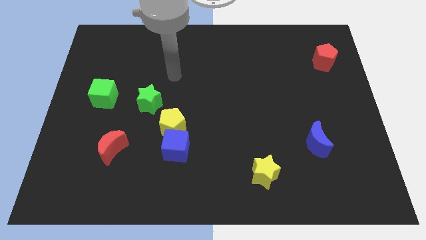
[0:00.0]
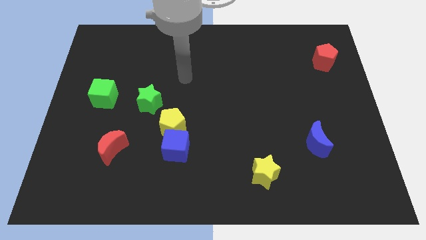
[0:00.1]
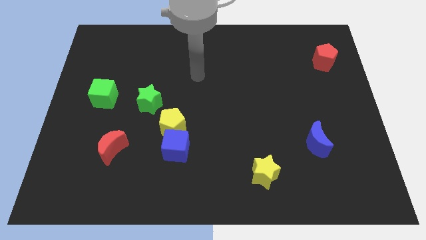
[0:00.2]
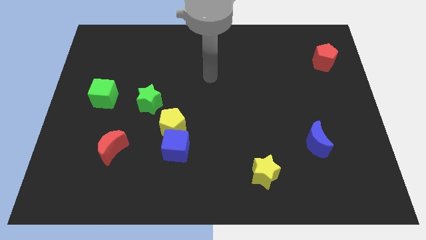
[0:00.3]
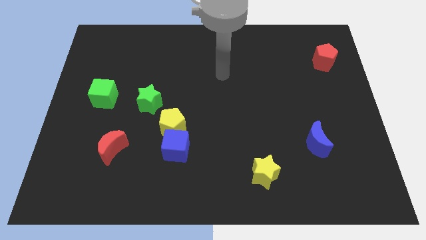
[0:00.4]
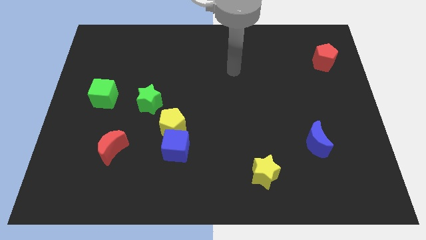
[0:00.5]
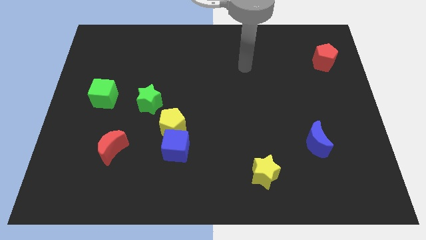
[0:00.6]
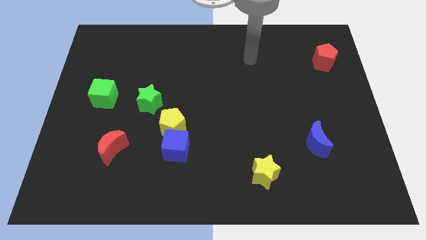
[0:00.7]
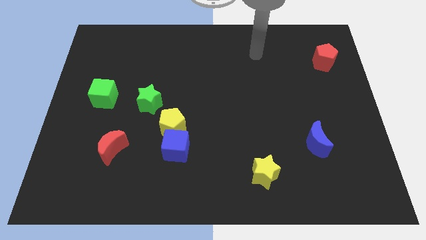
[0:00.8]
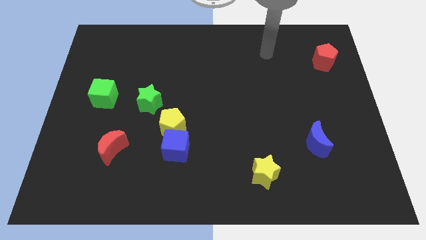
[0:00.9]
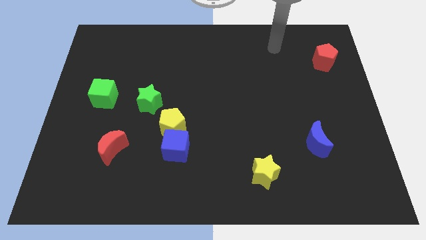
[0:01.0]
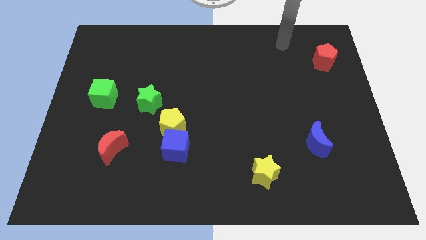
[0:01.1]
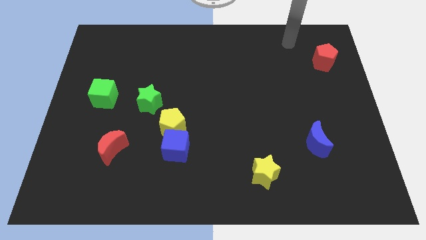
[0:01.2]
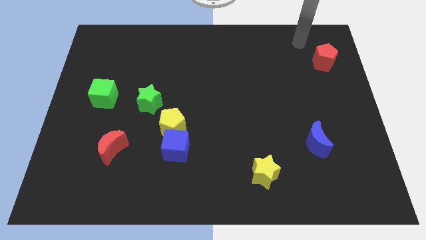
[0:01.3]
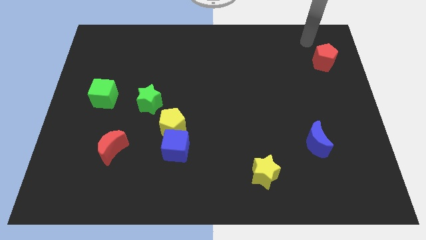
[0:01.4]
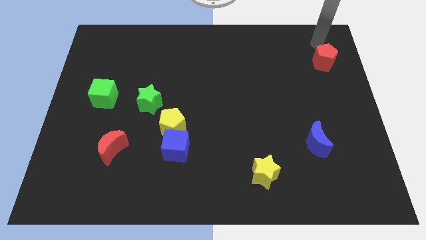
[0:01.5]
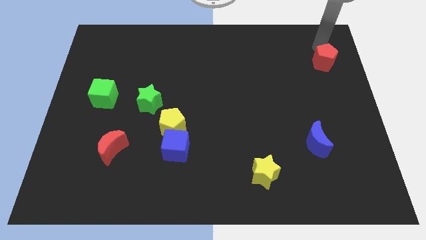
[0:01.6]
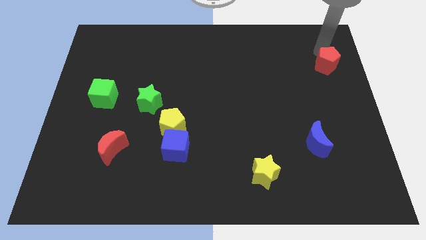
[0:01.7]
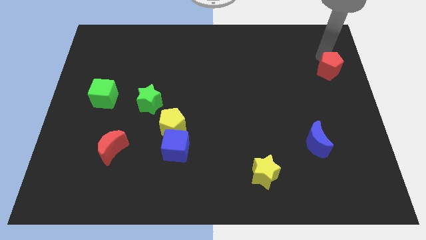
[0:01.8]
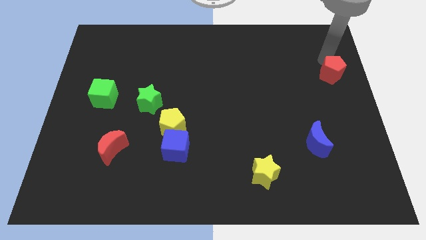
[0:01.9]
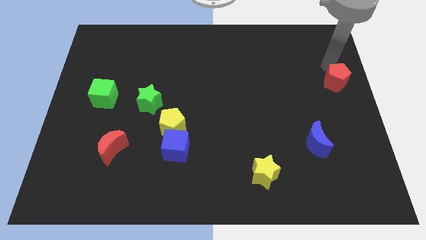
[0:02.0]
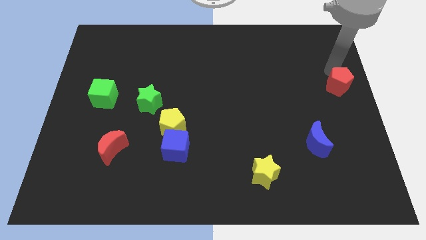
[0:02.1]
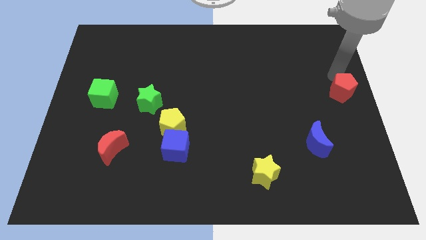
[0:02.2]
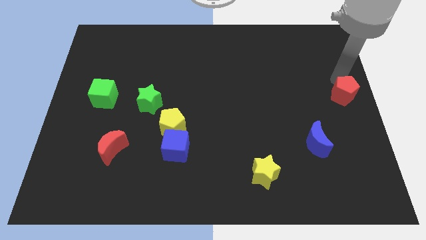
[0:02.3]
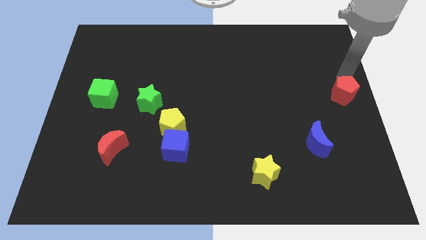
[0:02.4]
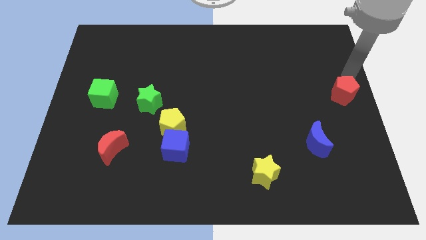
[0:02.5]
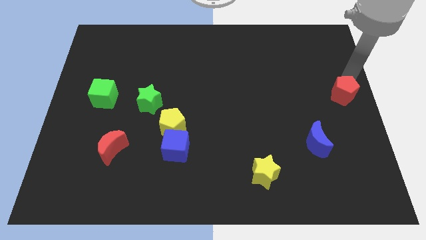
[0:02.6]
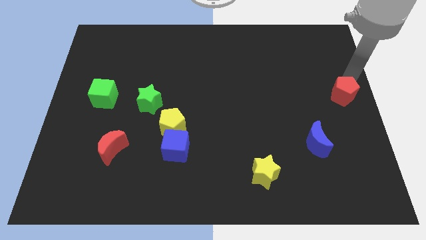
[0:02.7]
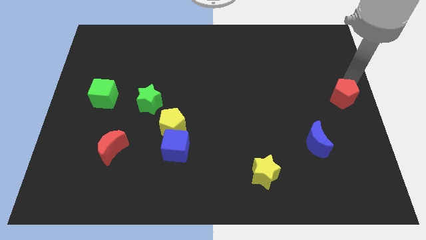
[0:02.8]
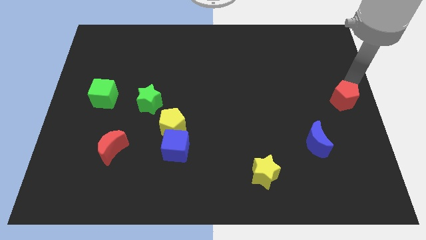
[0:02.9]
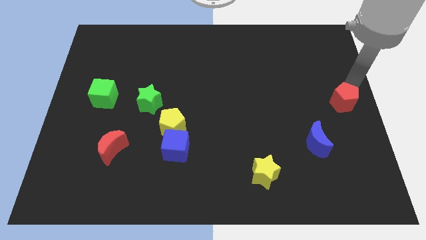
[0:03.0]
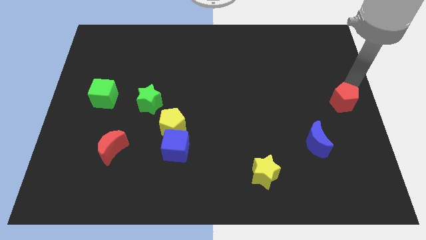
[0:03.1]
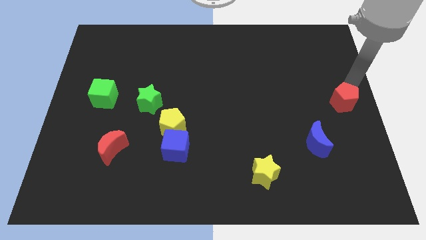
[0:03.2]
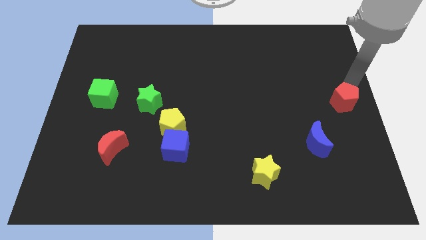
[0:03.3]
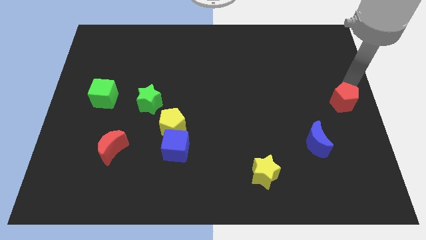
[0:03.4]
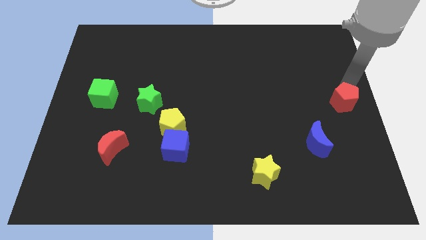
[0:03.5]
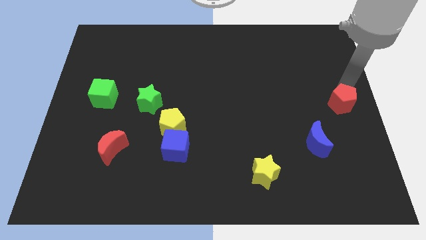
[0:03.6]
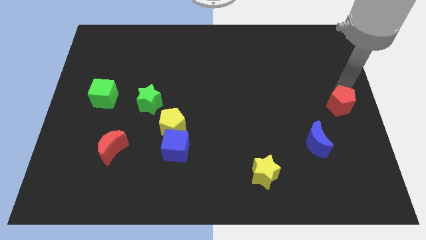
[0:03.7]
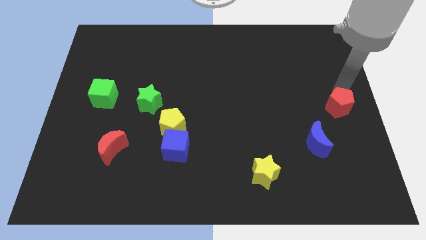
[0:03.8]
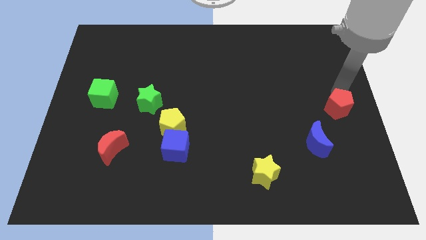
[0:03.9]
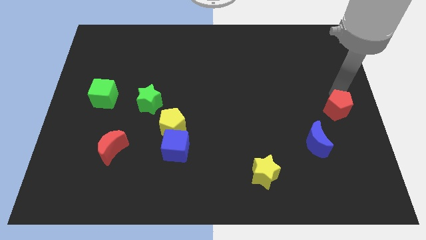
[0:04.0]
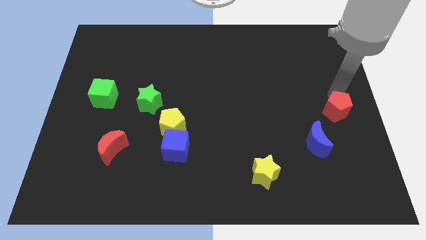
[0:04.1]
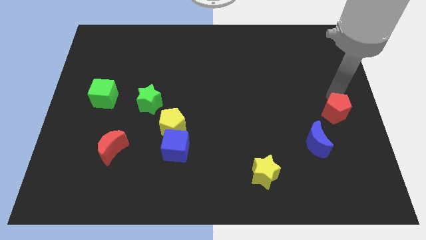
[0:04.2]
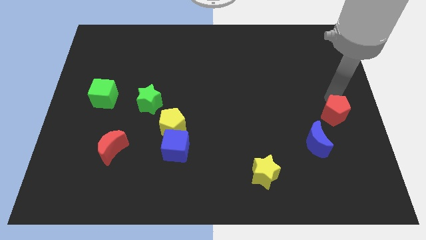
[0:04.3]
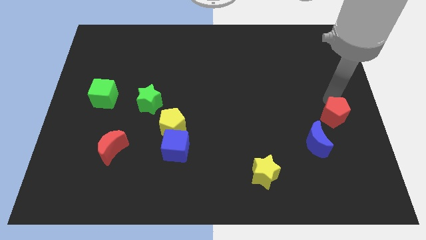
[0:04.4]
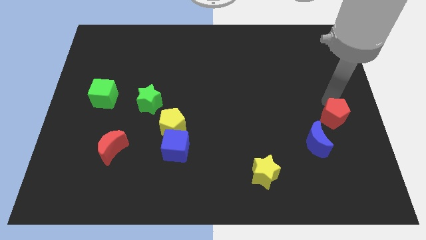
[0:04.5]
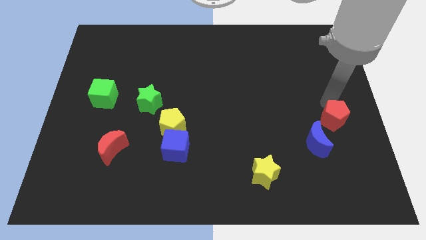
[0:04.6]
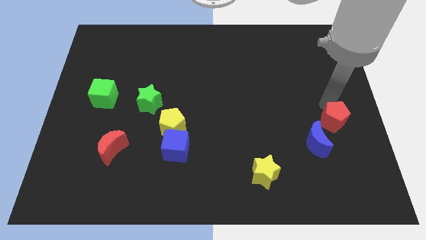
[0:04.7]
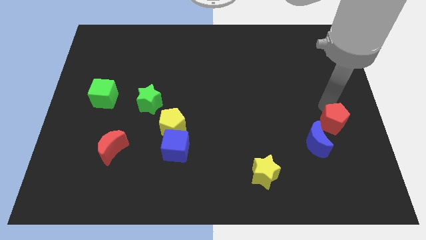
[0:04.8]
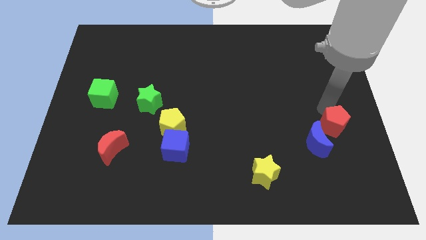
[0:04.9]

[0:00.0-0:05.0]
move the red pentagon downwards

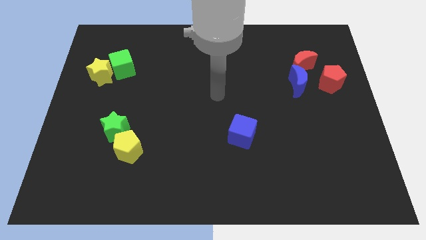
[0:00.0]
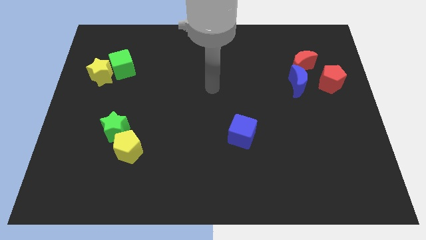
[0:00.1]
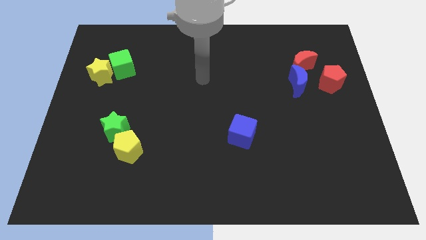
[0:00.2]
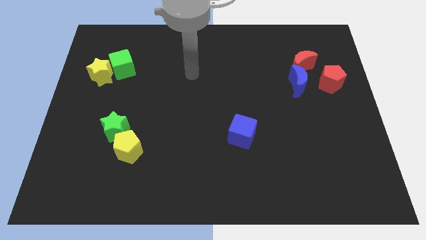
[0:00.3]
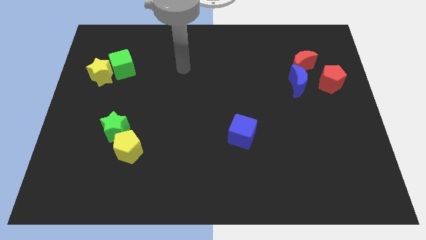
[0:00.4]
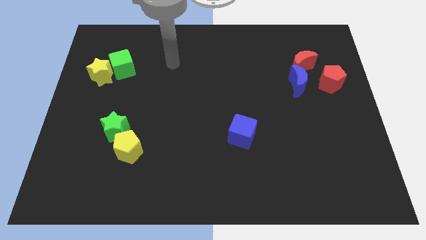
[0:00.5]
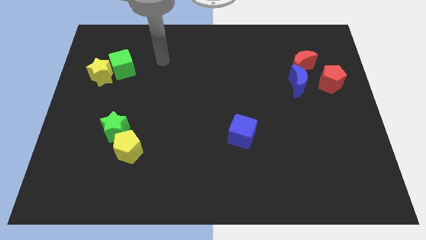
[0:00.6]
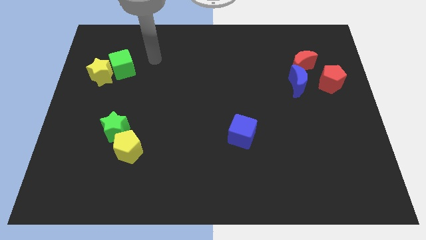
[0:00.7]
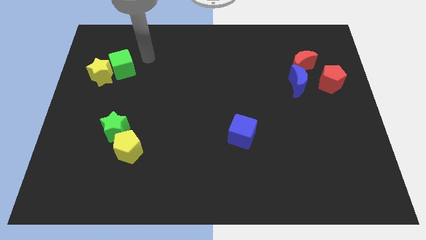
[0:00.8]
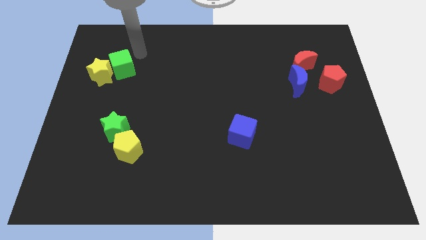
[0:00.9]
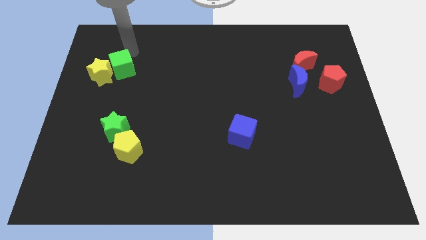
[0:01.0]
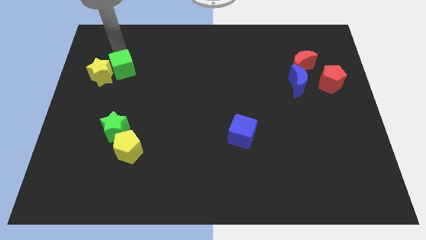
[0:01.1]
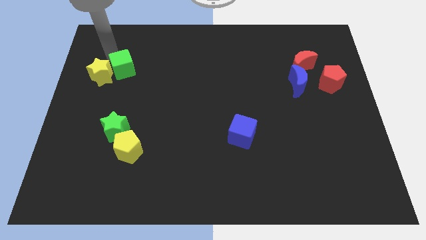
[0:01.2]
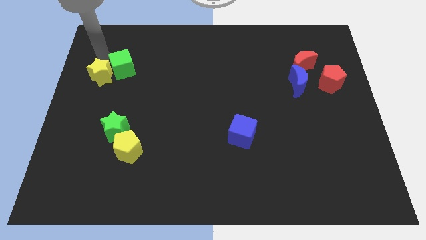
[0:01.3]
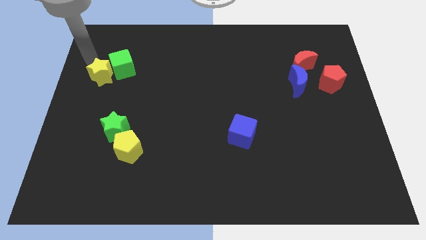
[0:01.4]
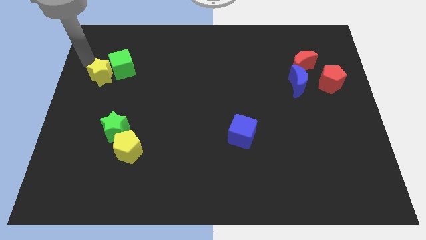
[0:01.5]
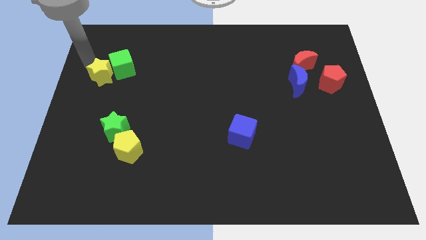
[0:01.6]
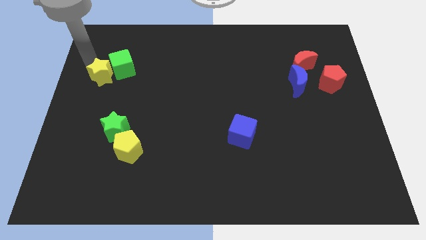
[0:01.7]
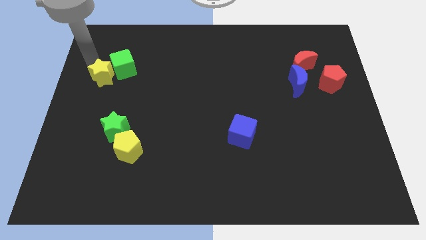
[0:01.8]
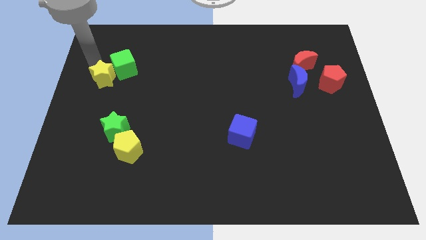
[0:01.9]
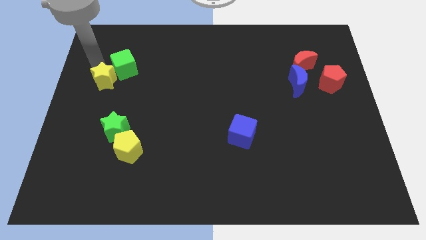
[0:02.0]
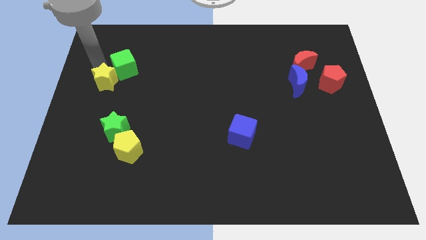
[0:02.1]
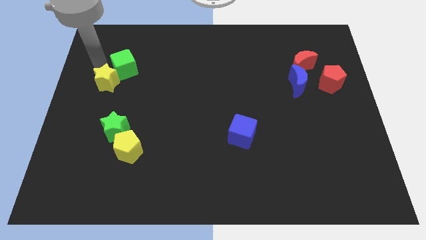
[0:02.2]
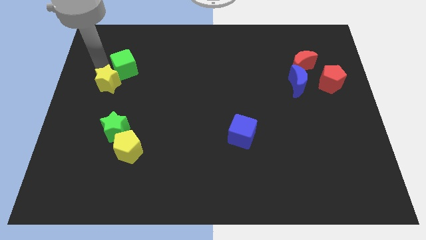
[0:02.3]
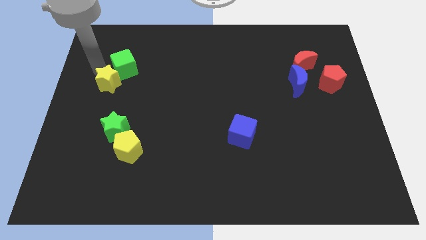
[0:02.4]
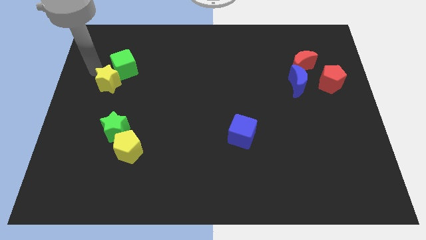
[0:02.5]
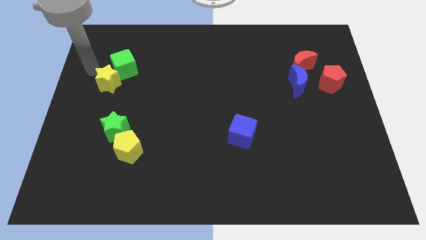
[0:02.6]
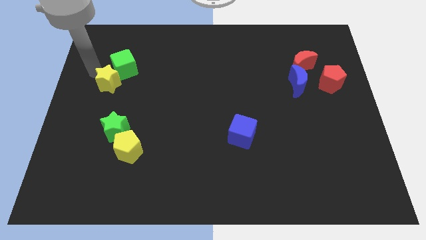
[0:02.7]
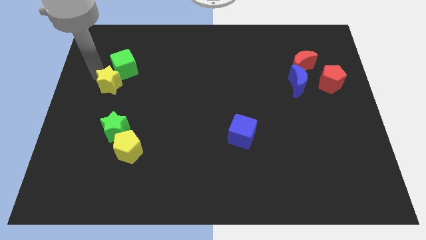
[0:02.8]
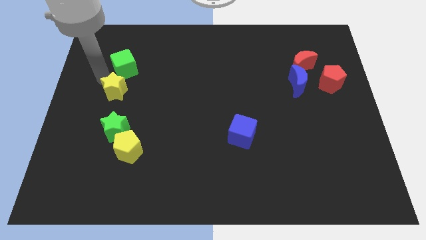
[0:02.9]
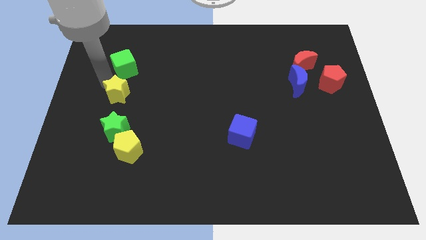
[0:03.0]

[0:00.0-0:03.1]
push the yellow star slightly down and then to the right
